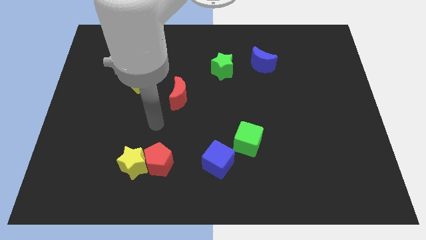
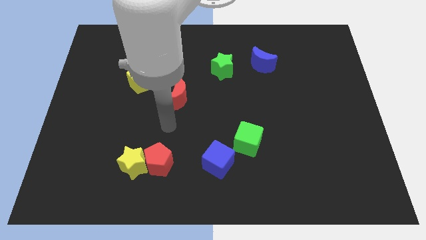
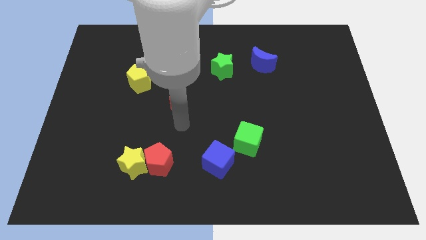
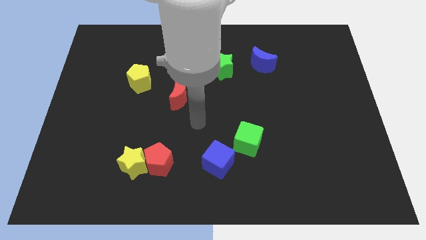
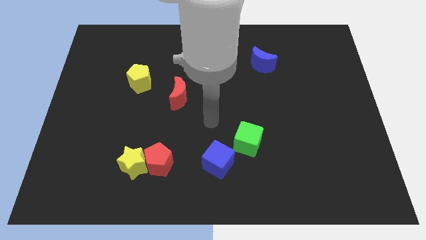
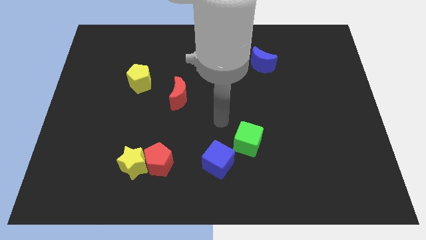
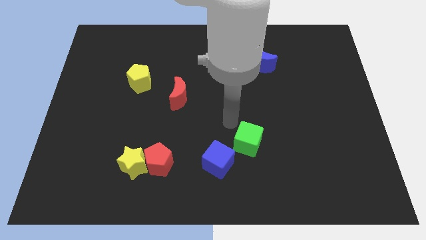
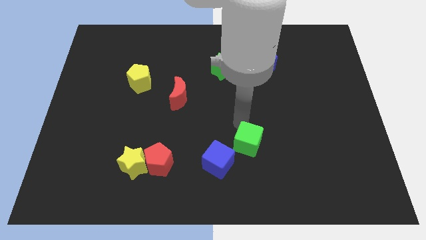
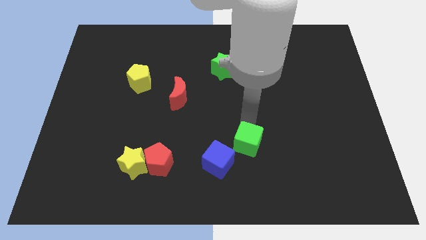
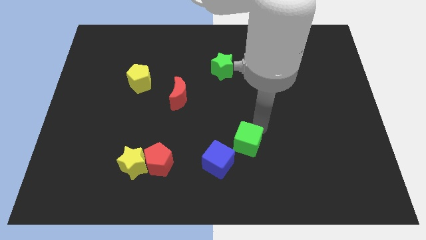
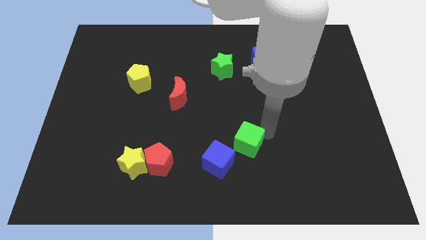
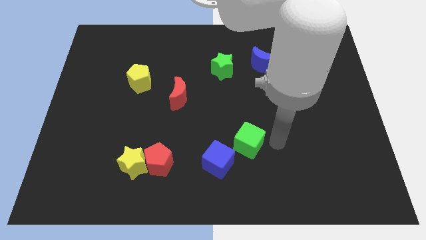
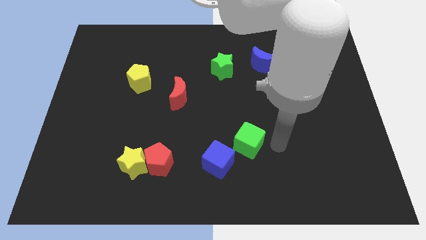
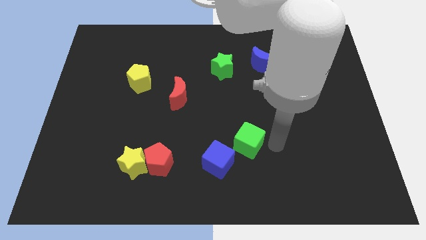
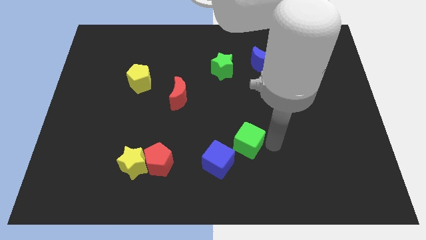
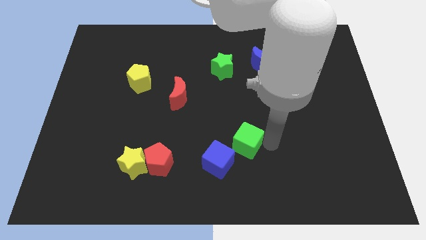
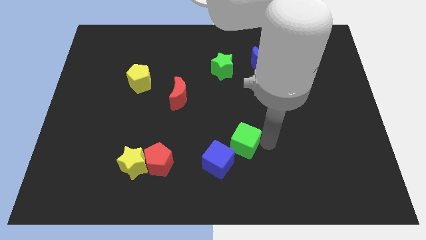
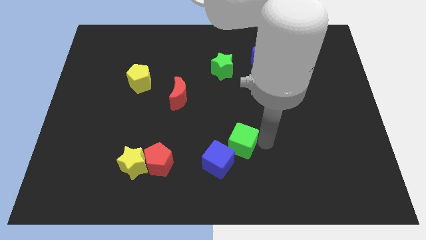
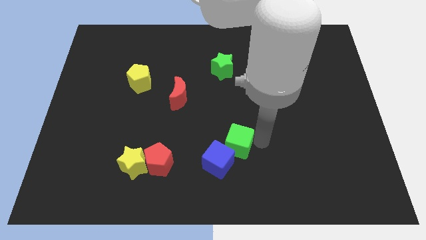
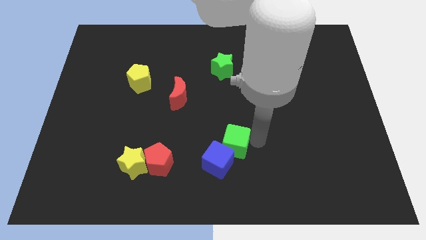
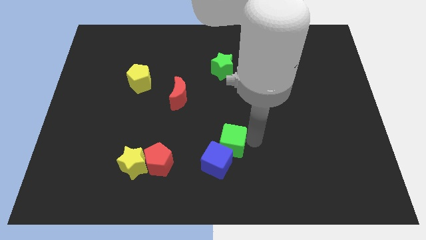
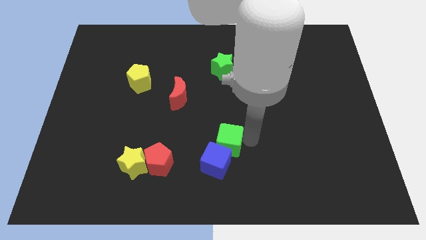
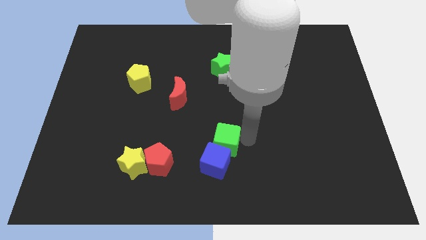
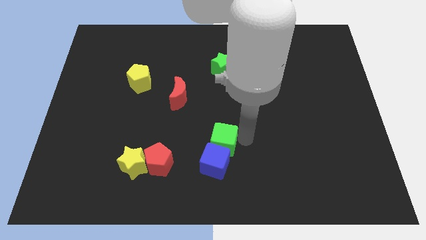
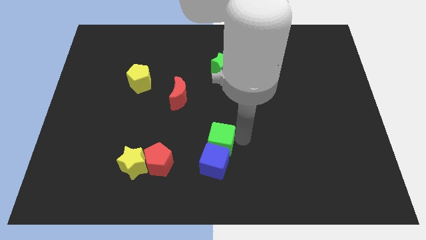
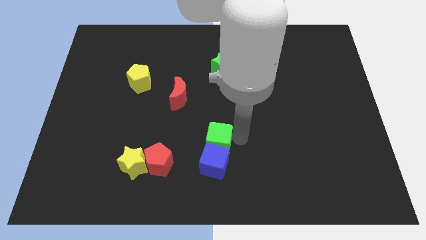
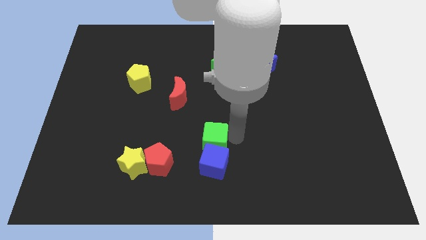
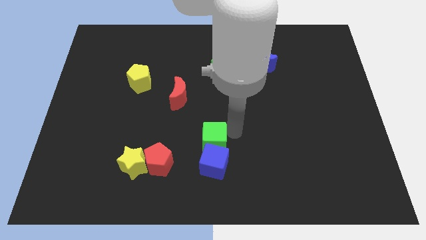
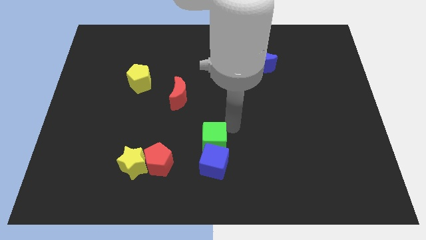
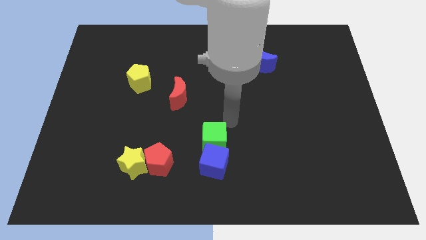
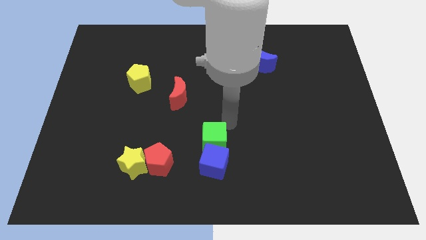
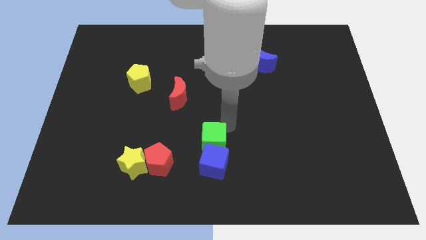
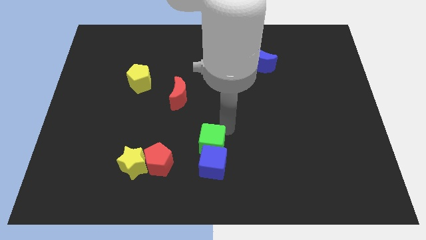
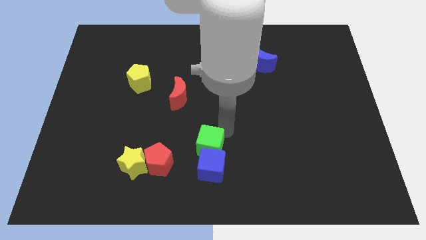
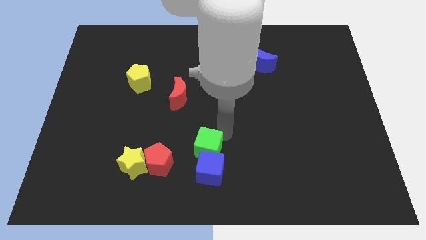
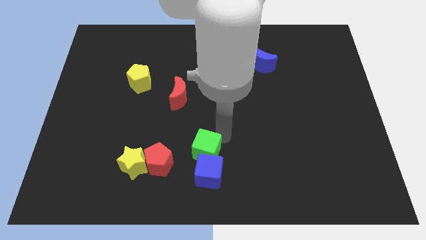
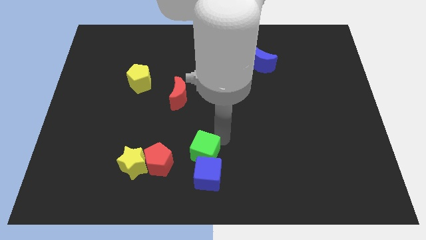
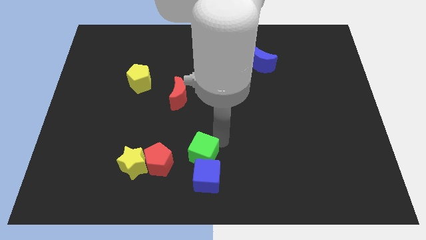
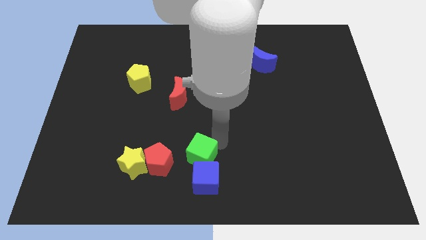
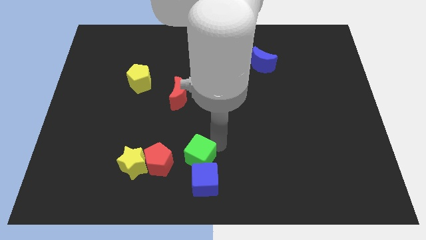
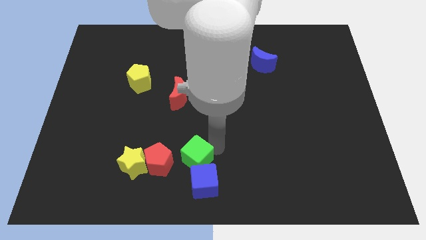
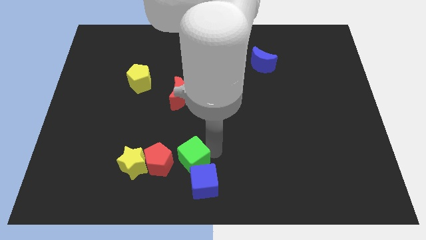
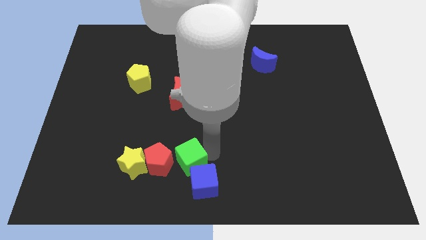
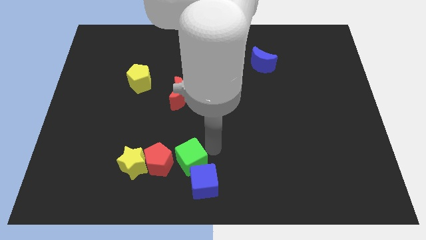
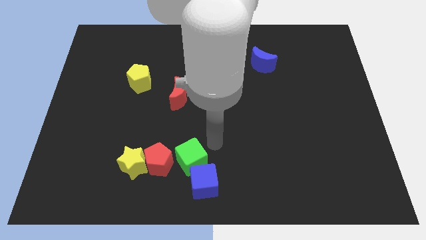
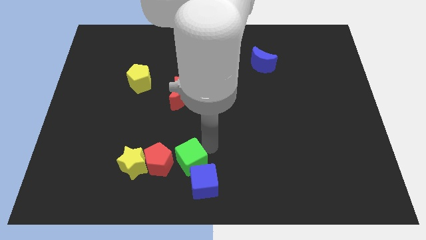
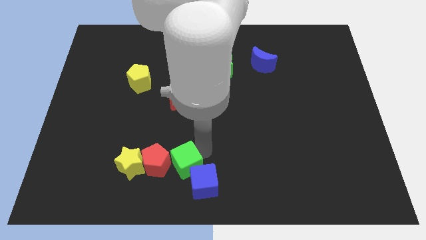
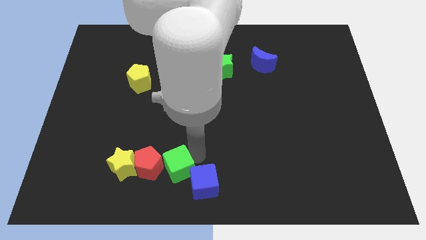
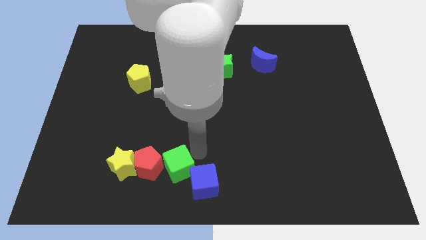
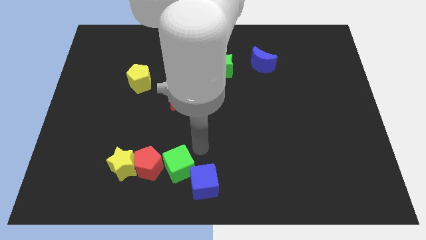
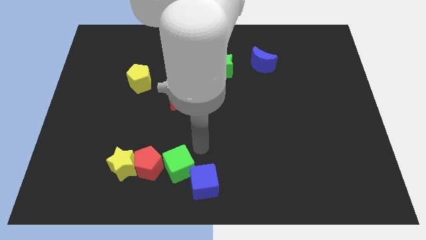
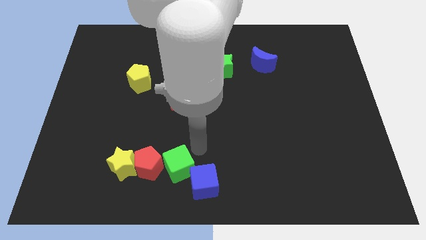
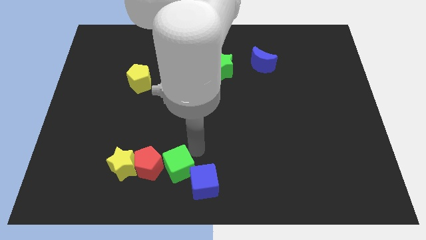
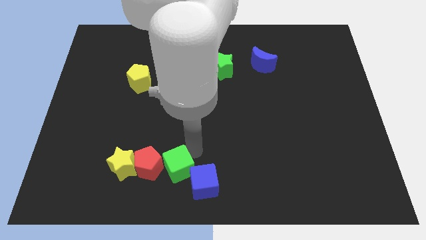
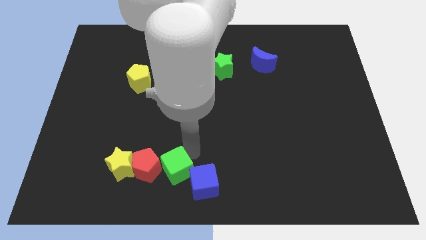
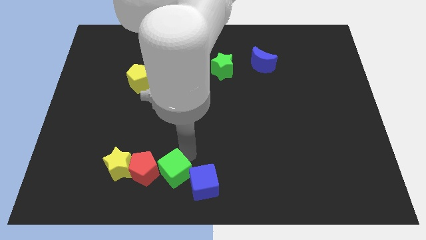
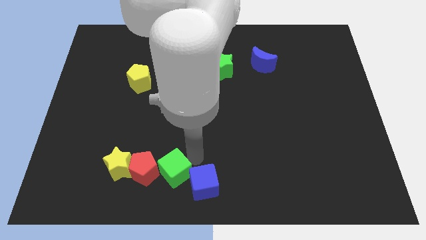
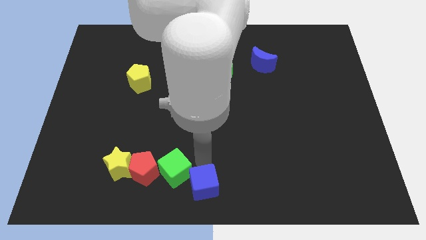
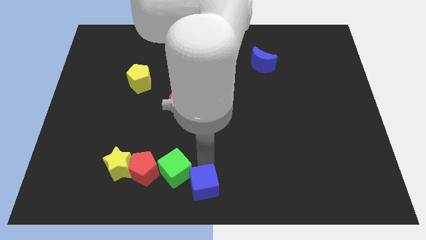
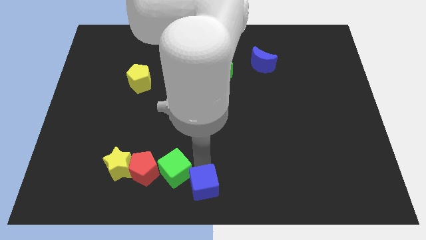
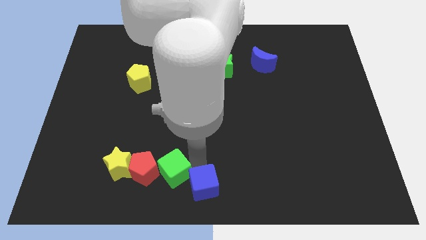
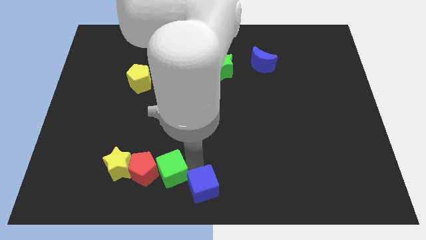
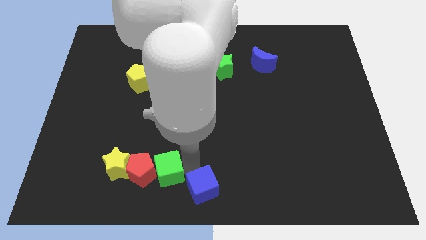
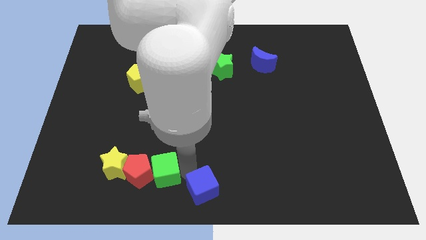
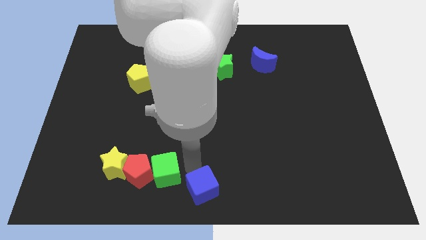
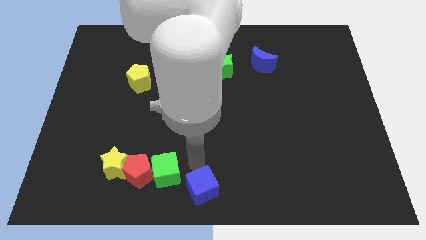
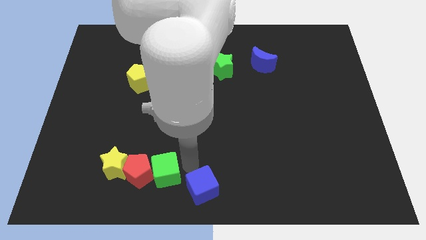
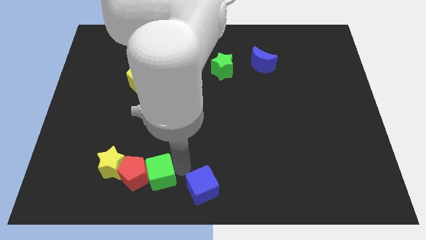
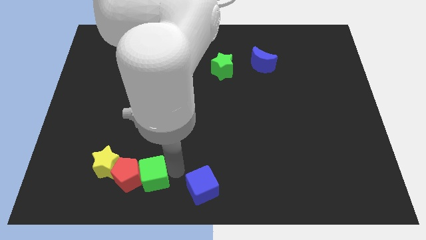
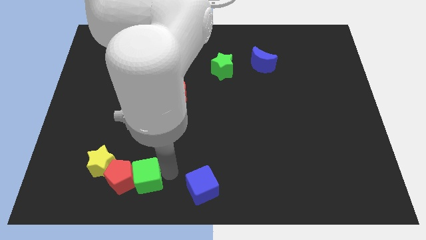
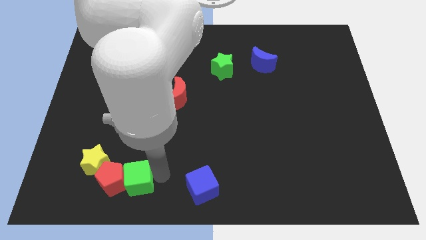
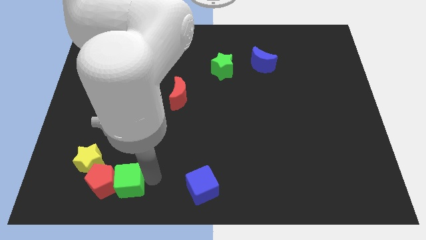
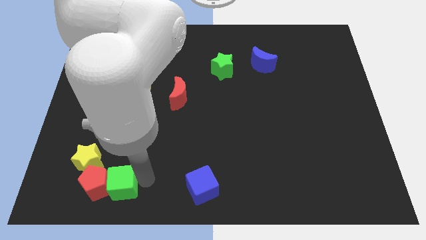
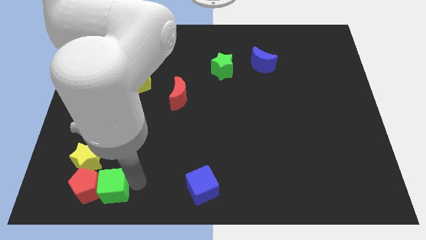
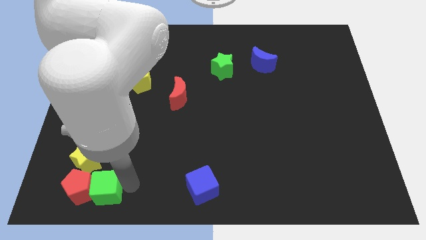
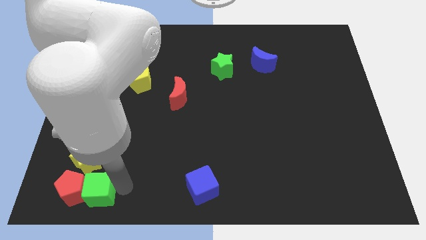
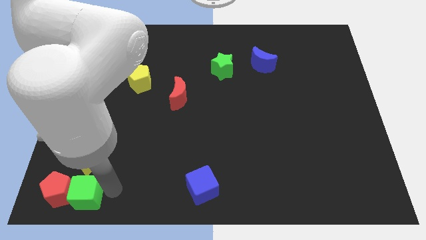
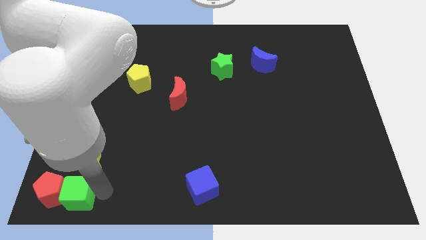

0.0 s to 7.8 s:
push the green cube to the bottom left of the board

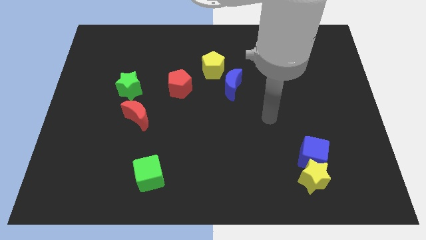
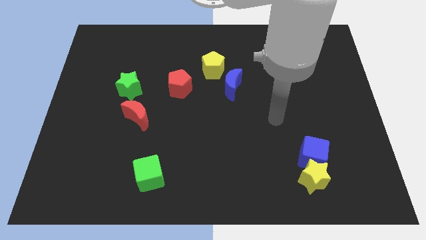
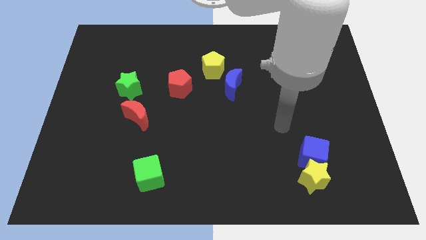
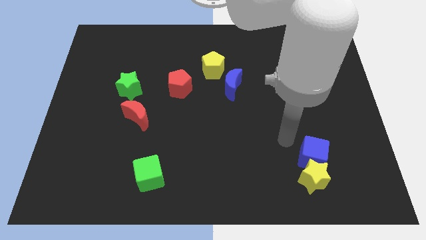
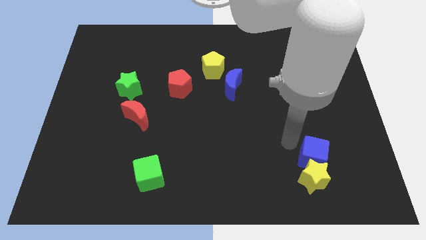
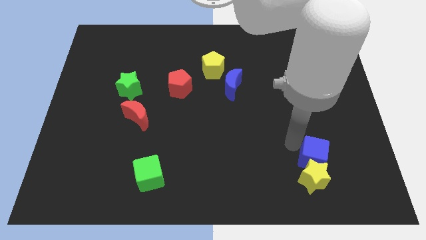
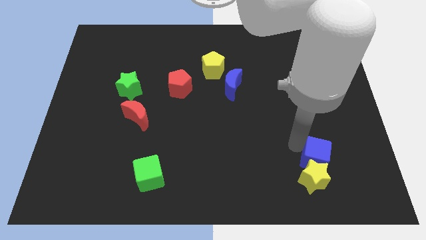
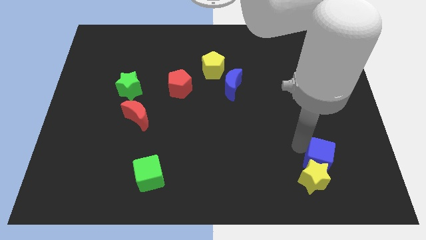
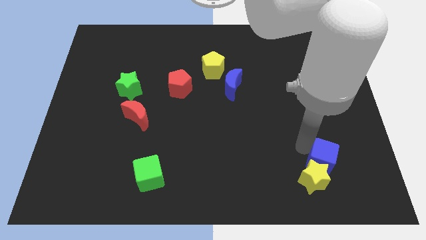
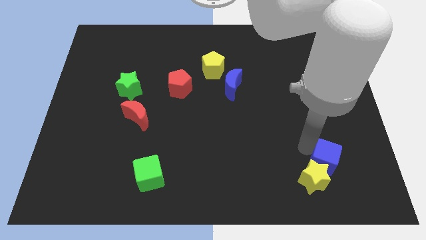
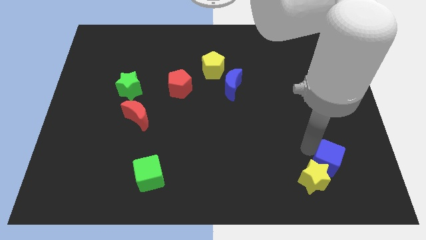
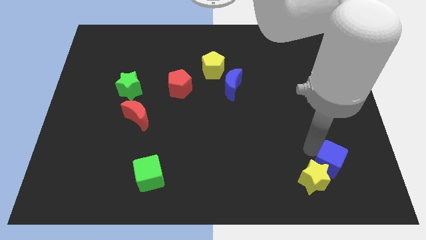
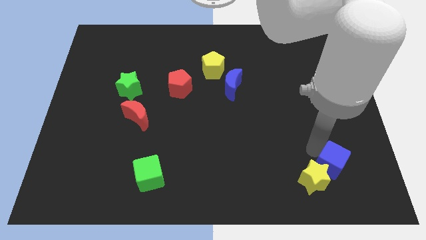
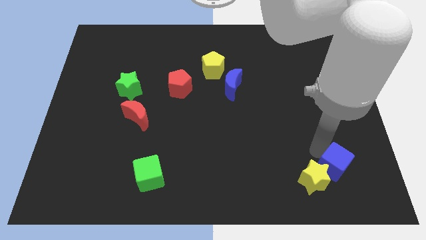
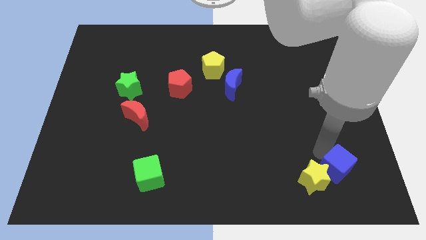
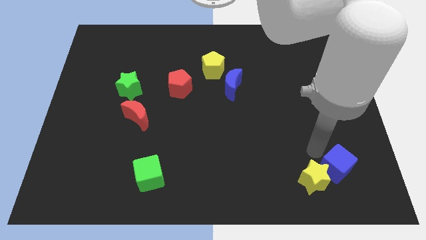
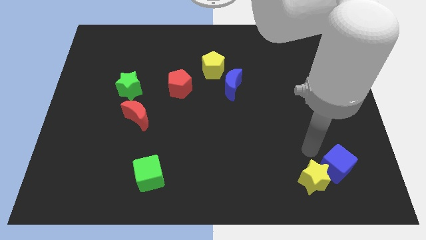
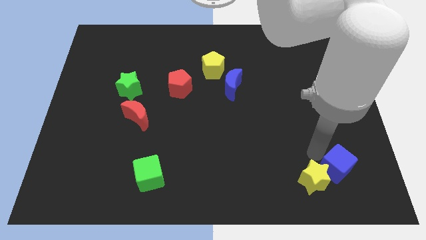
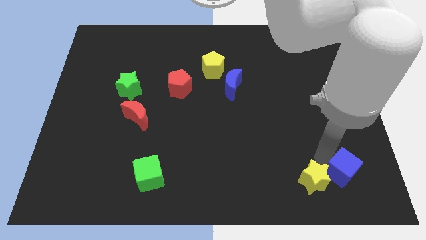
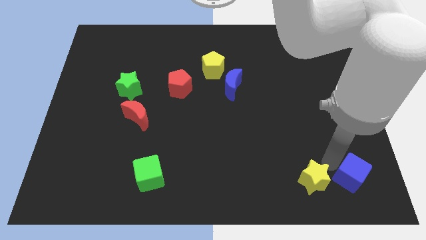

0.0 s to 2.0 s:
move the blue cube to the bottom right
